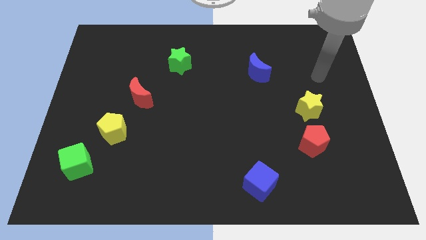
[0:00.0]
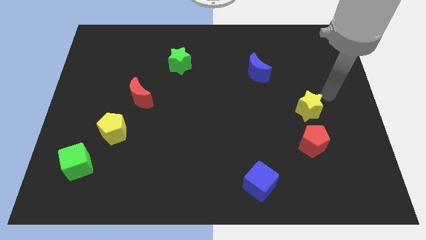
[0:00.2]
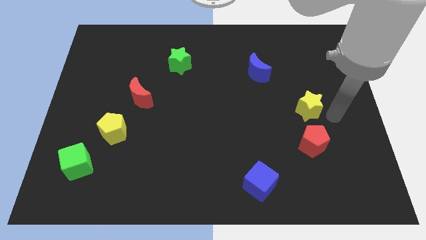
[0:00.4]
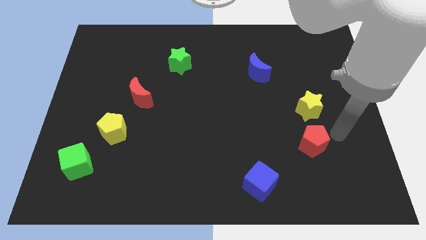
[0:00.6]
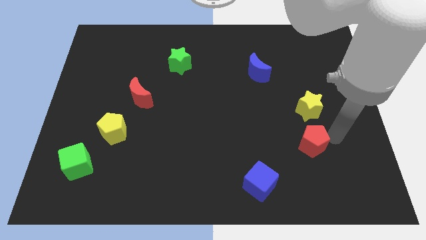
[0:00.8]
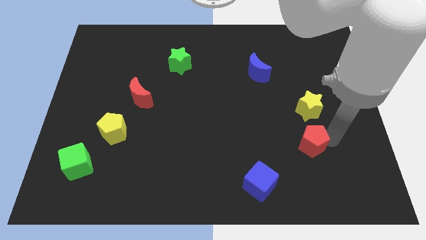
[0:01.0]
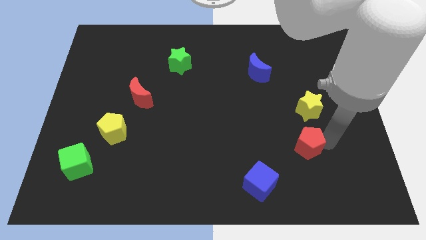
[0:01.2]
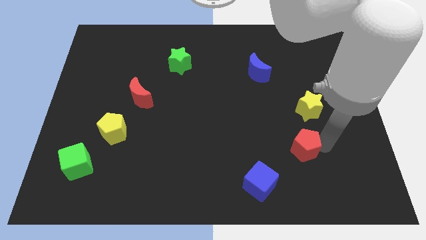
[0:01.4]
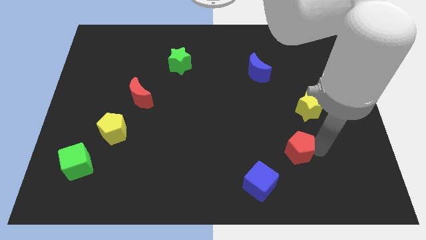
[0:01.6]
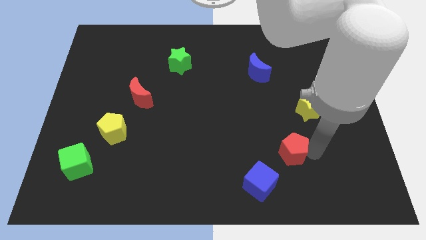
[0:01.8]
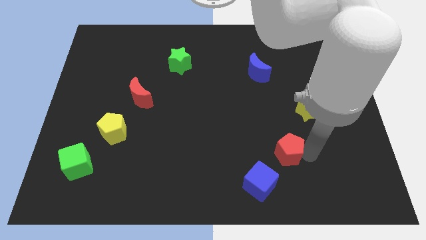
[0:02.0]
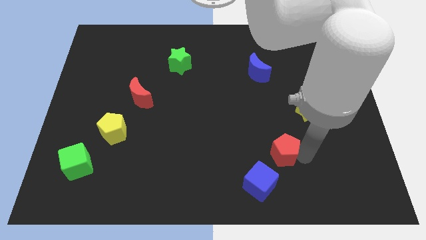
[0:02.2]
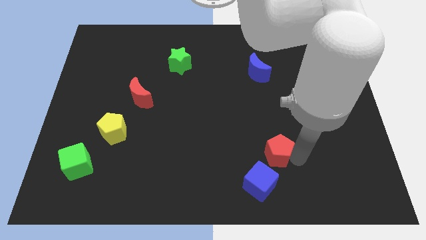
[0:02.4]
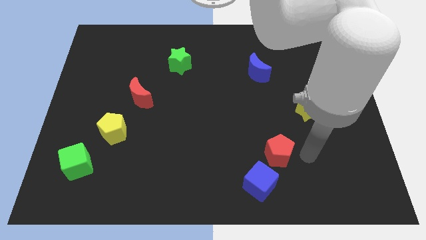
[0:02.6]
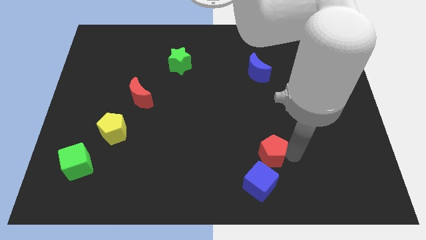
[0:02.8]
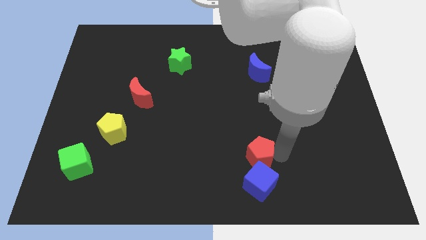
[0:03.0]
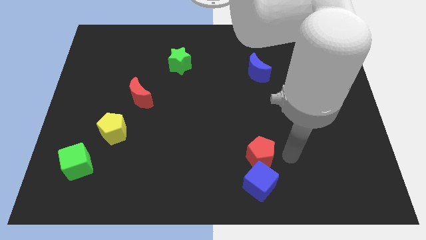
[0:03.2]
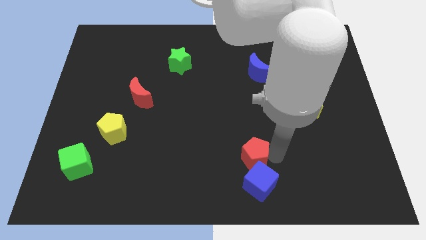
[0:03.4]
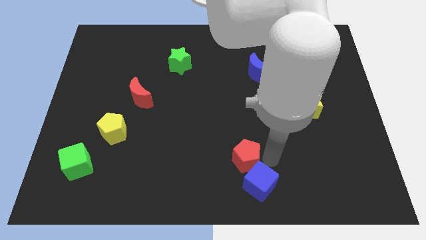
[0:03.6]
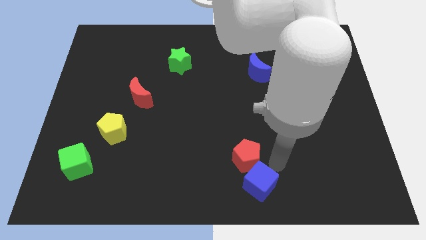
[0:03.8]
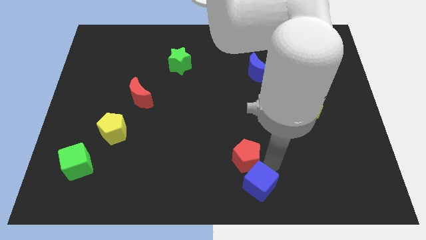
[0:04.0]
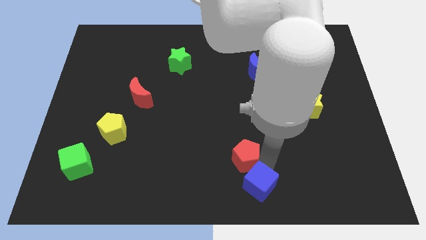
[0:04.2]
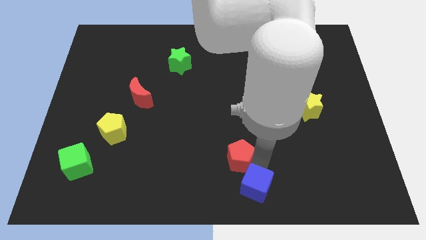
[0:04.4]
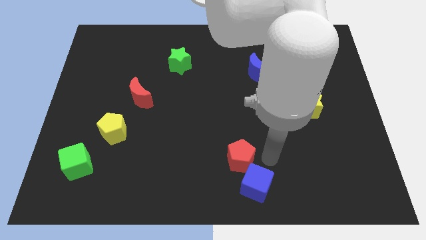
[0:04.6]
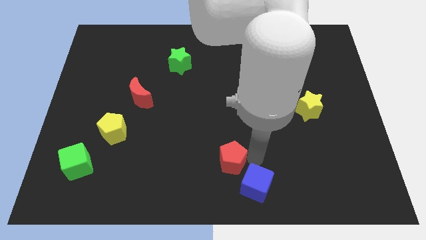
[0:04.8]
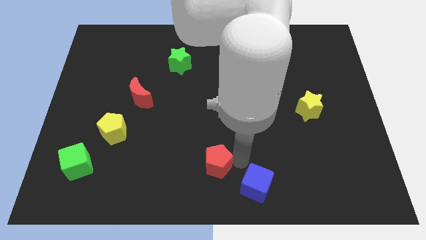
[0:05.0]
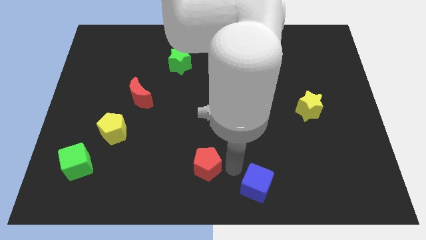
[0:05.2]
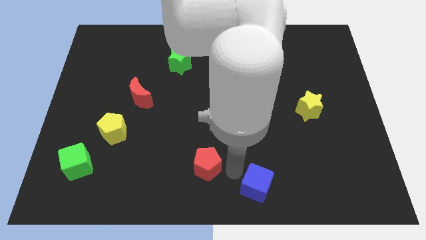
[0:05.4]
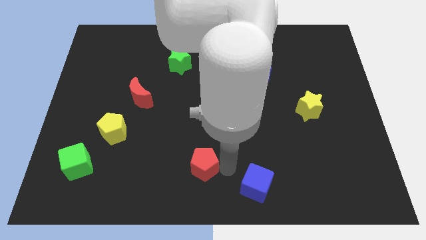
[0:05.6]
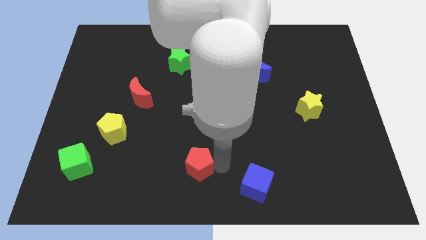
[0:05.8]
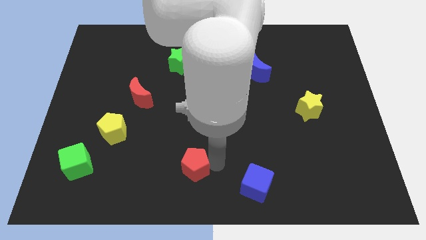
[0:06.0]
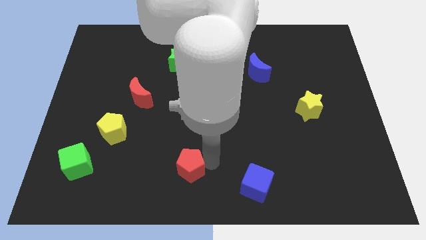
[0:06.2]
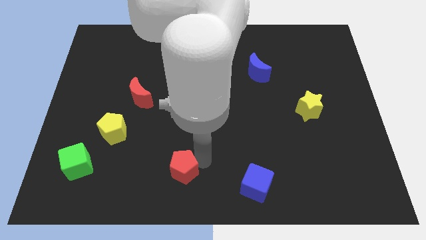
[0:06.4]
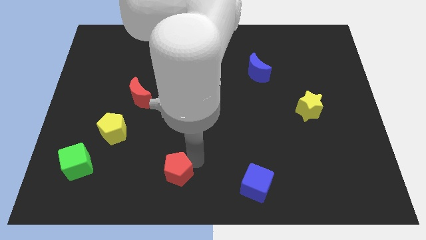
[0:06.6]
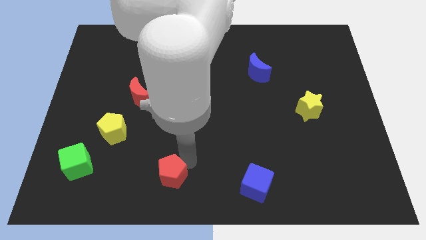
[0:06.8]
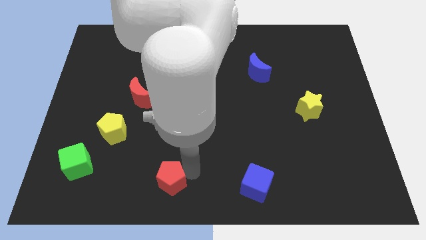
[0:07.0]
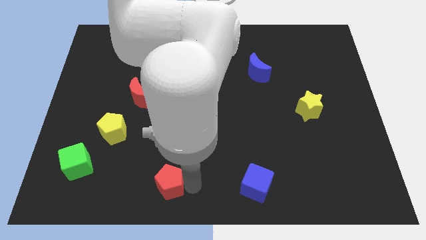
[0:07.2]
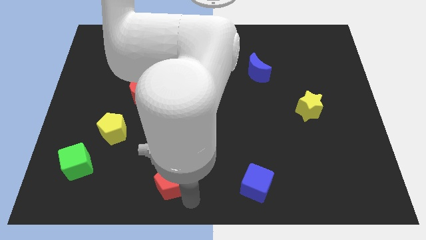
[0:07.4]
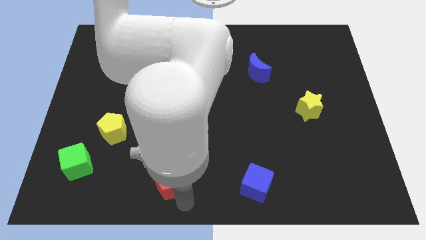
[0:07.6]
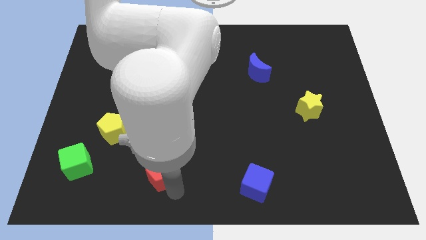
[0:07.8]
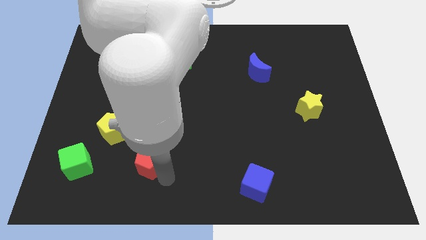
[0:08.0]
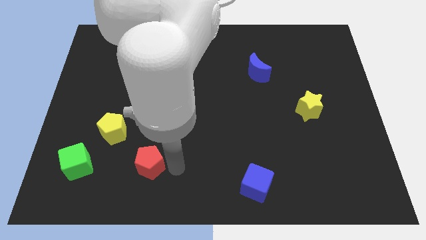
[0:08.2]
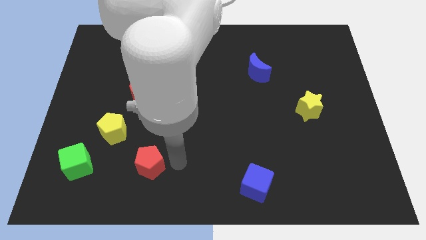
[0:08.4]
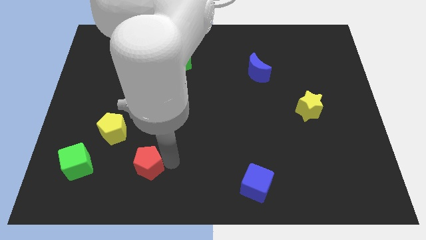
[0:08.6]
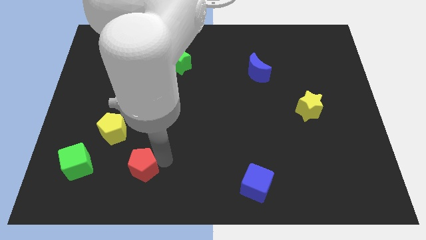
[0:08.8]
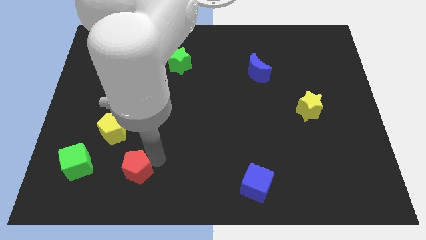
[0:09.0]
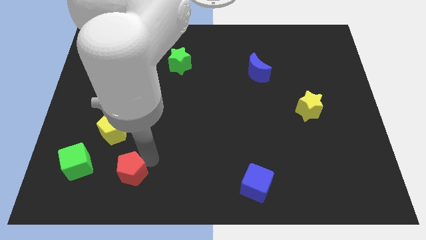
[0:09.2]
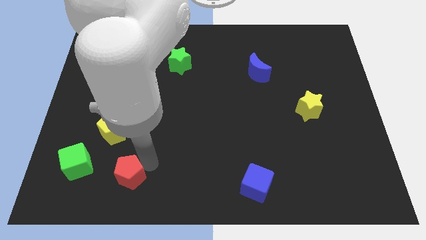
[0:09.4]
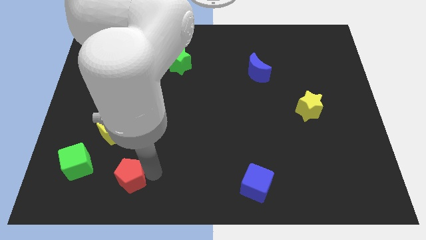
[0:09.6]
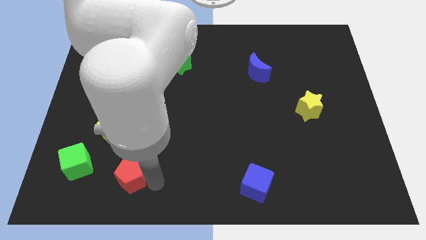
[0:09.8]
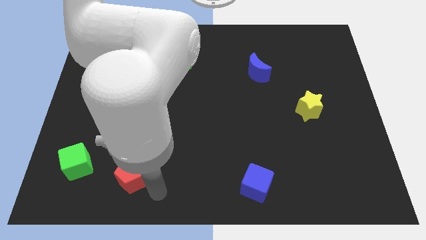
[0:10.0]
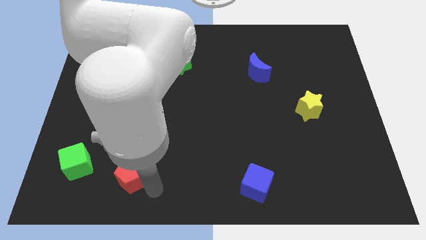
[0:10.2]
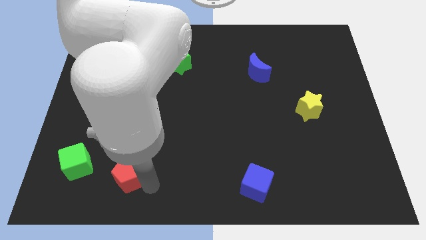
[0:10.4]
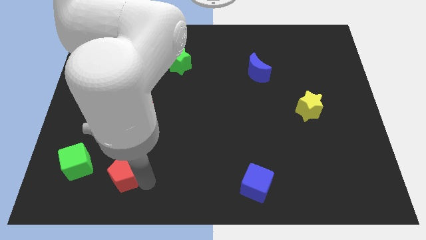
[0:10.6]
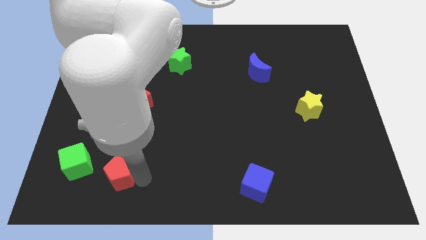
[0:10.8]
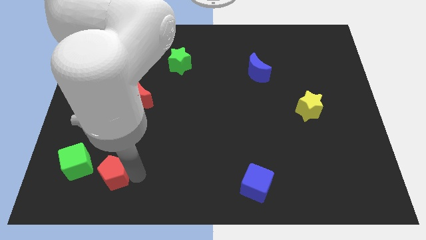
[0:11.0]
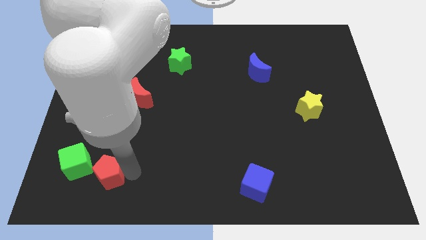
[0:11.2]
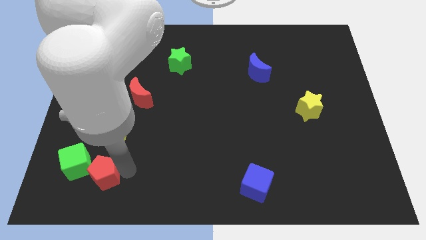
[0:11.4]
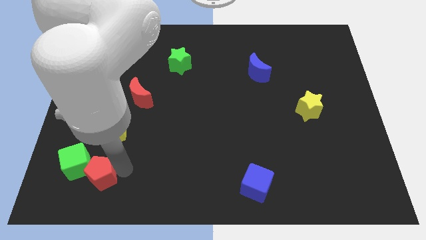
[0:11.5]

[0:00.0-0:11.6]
move the red pentagon towards the green cube

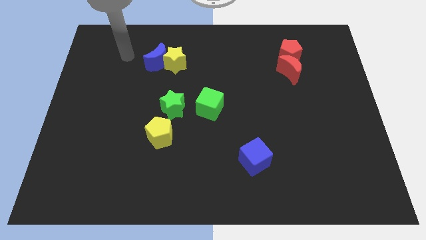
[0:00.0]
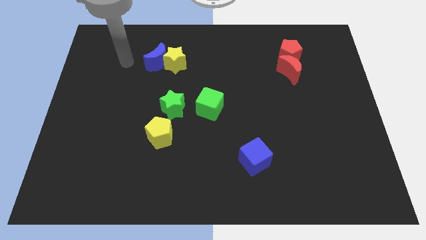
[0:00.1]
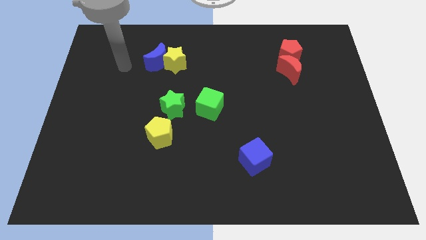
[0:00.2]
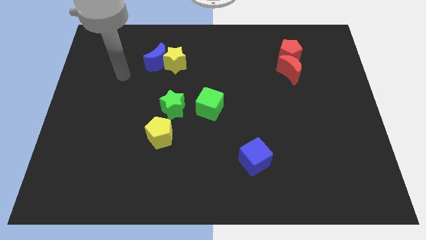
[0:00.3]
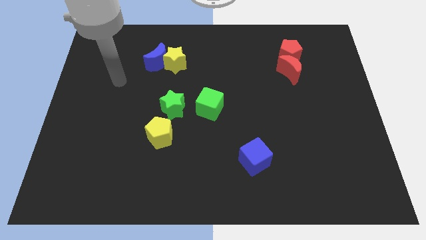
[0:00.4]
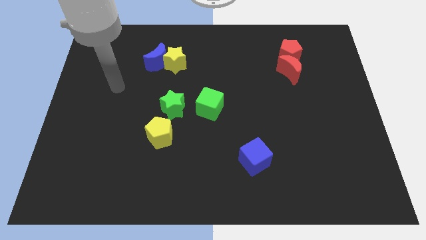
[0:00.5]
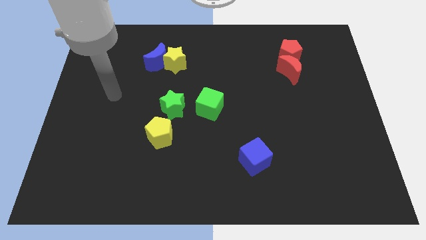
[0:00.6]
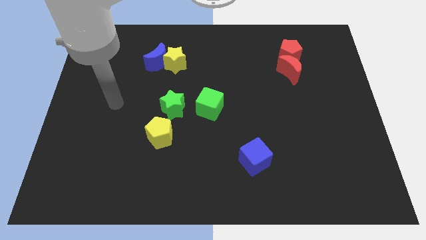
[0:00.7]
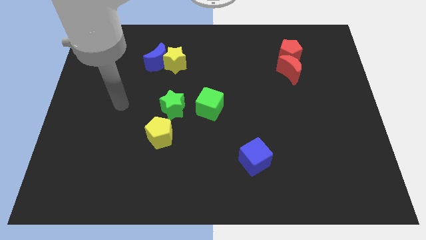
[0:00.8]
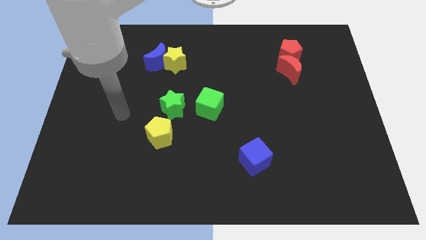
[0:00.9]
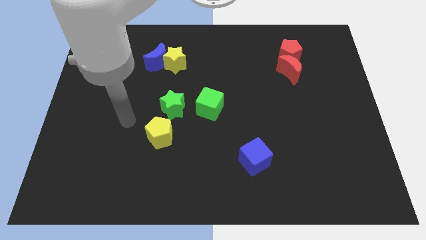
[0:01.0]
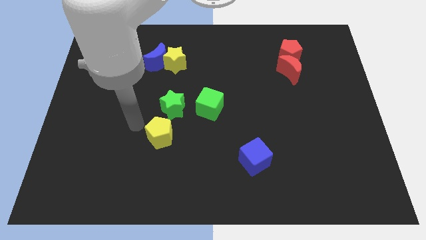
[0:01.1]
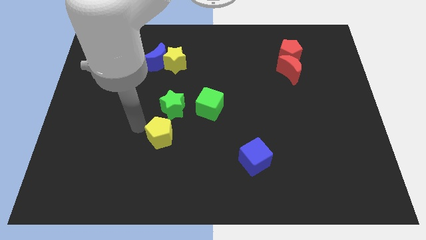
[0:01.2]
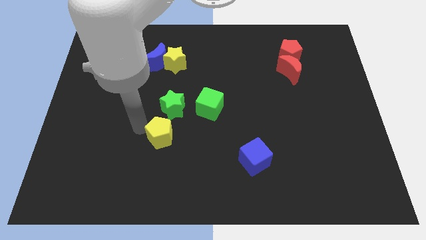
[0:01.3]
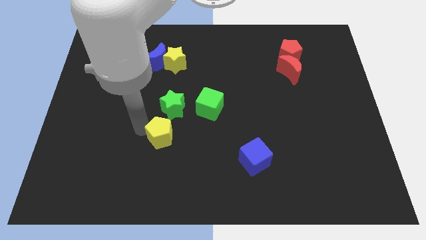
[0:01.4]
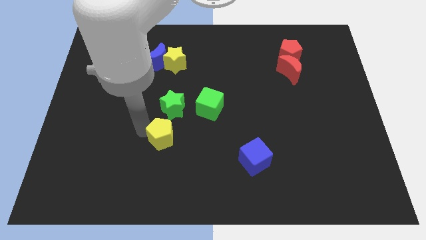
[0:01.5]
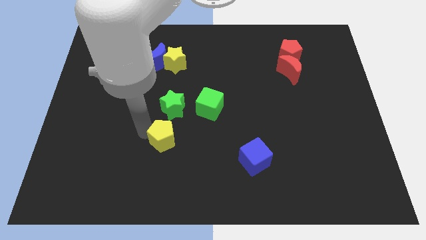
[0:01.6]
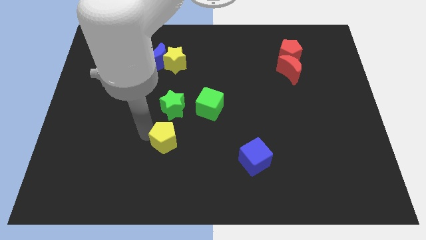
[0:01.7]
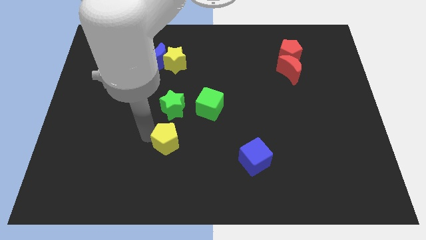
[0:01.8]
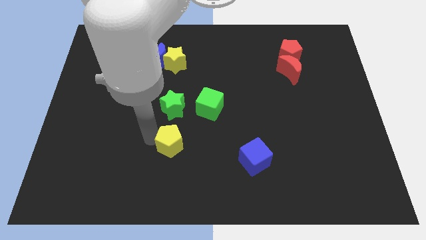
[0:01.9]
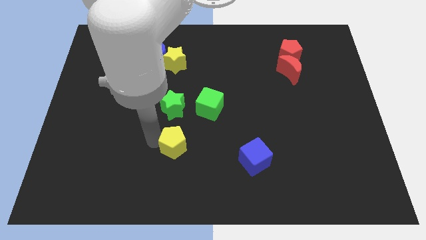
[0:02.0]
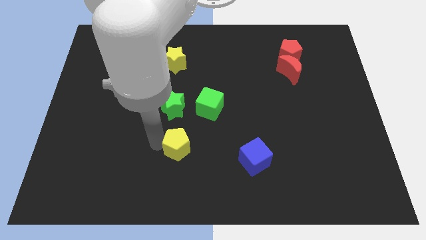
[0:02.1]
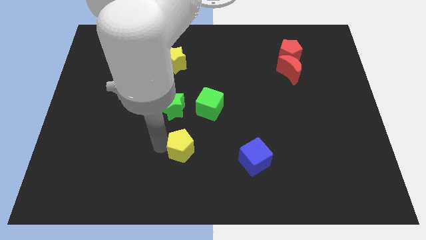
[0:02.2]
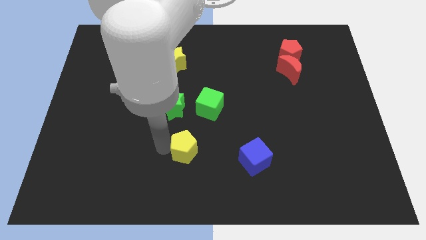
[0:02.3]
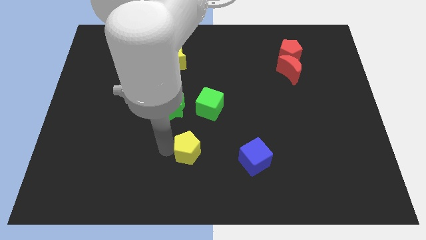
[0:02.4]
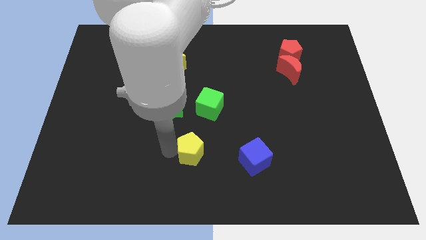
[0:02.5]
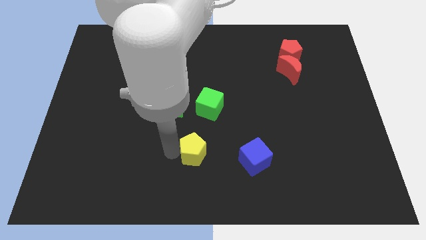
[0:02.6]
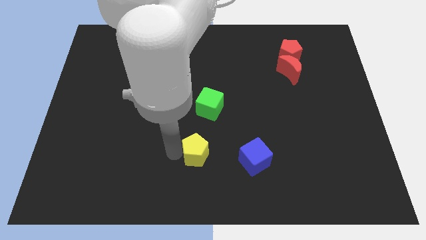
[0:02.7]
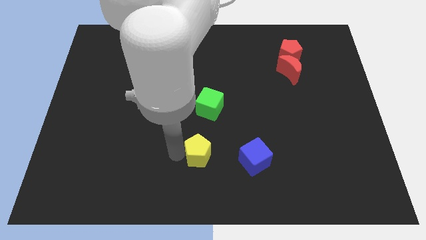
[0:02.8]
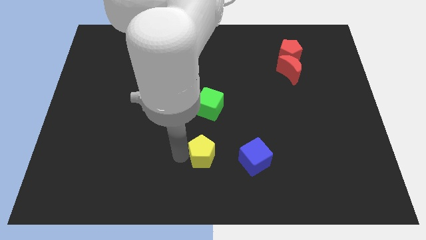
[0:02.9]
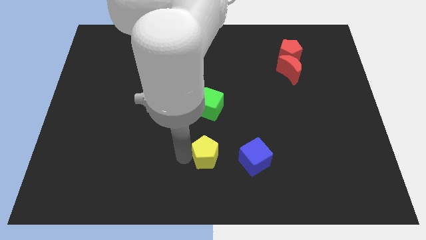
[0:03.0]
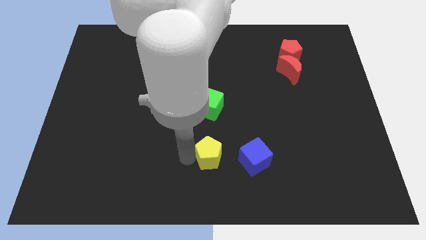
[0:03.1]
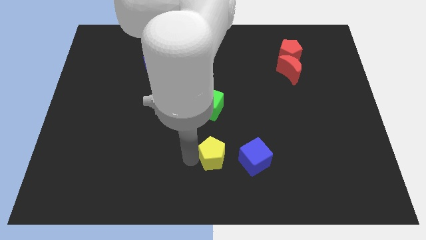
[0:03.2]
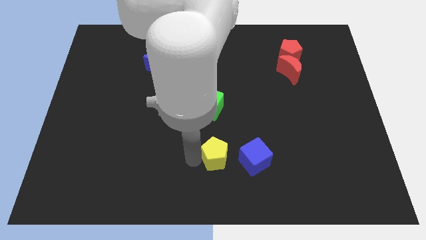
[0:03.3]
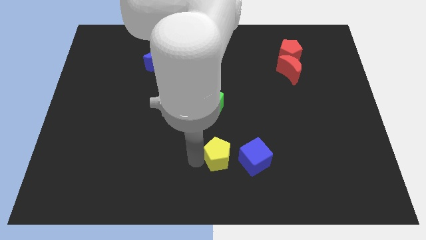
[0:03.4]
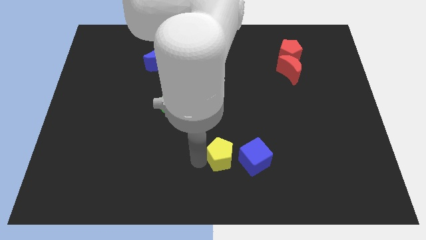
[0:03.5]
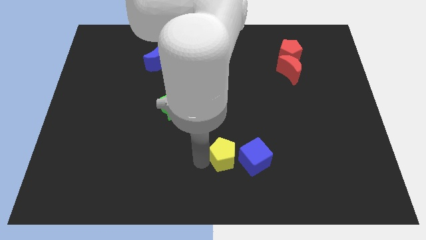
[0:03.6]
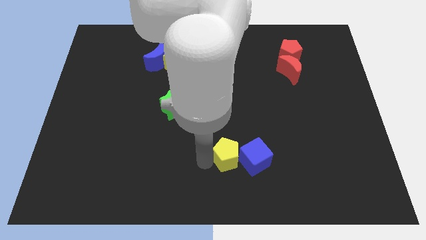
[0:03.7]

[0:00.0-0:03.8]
put the yellow pentagon towards the blue cube
